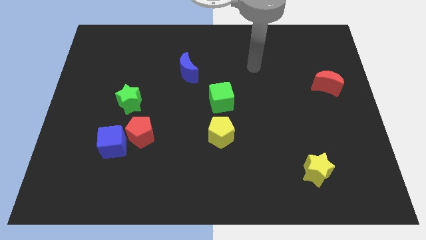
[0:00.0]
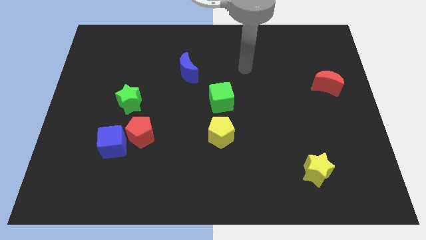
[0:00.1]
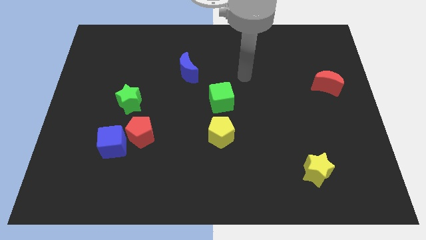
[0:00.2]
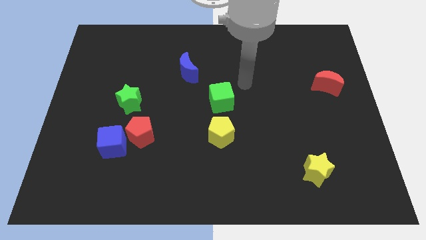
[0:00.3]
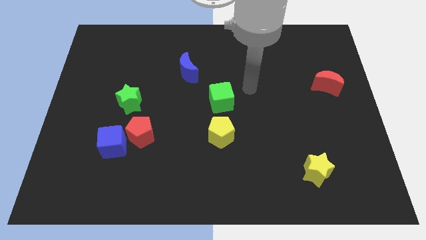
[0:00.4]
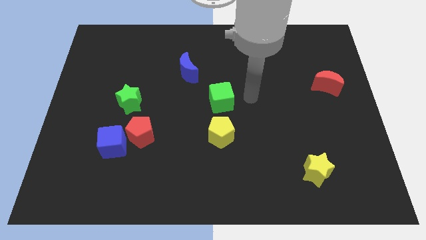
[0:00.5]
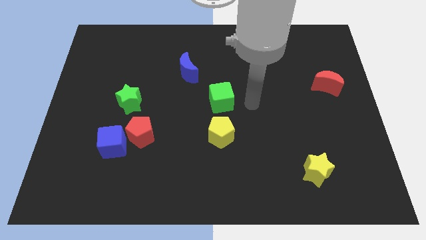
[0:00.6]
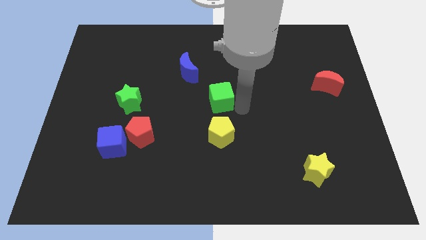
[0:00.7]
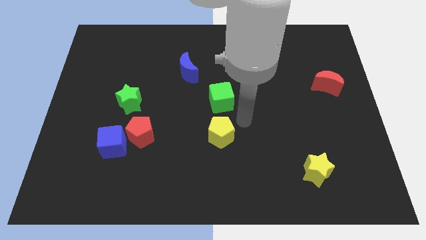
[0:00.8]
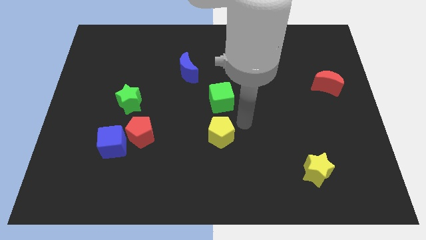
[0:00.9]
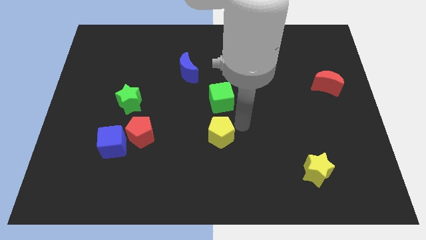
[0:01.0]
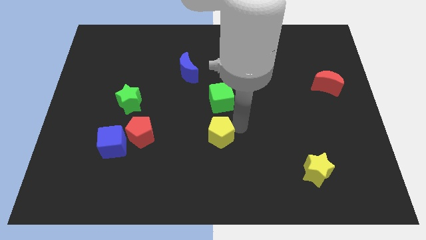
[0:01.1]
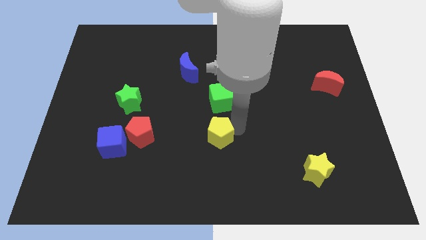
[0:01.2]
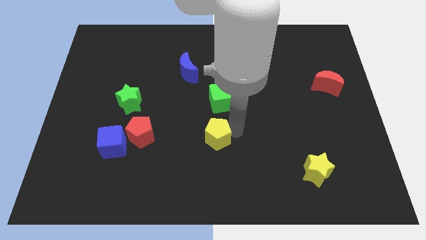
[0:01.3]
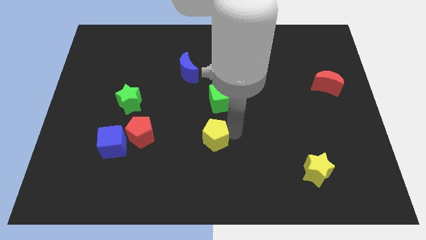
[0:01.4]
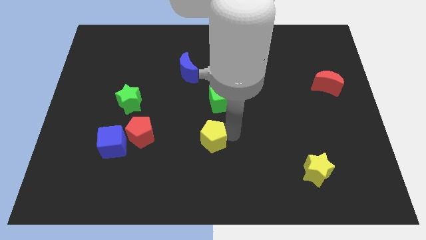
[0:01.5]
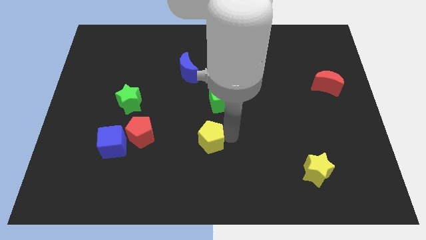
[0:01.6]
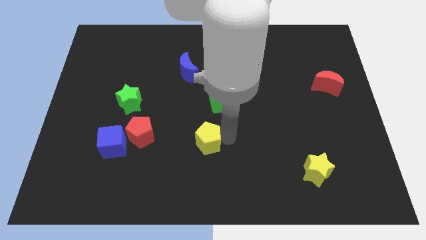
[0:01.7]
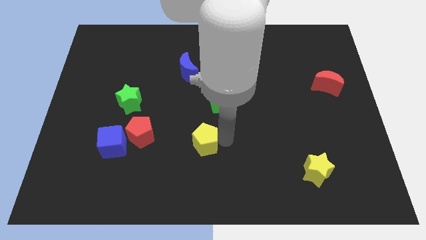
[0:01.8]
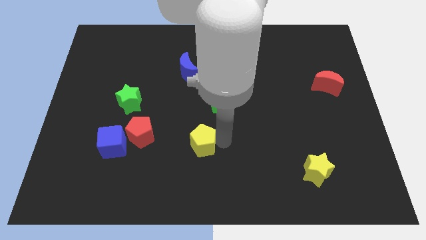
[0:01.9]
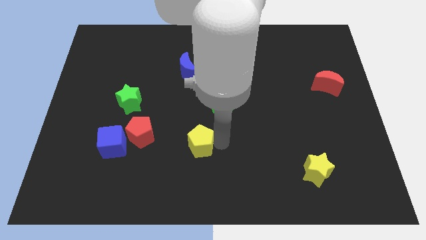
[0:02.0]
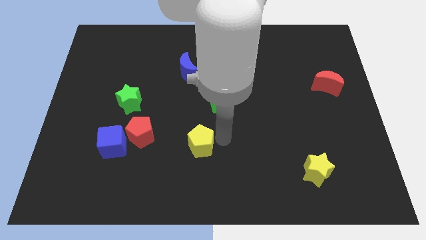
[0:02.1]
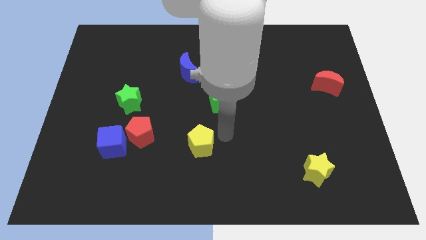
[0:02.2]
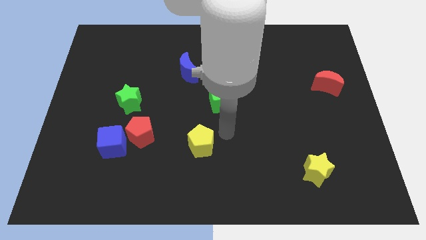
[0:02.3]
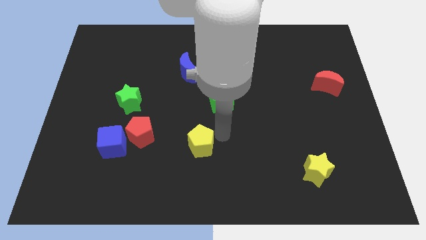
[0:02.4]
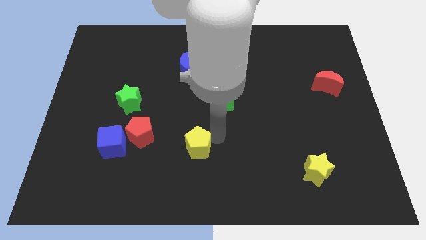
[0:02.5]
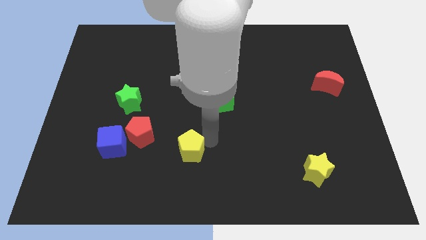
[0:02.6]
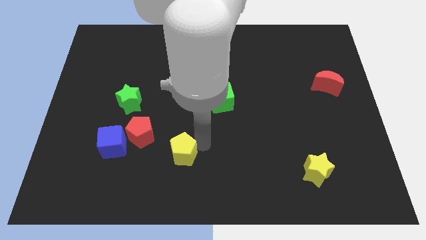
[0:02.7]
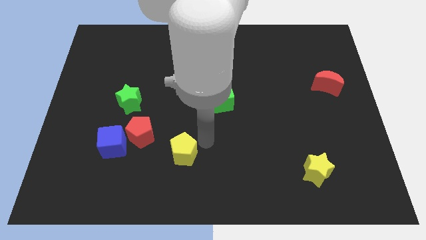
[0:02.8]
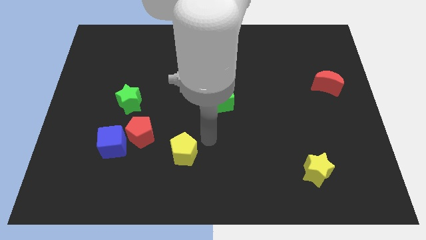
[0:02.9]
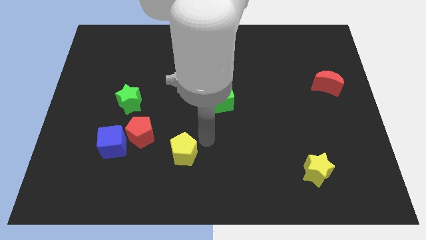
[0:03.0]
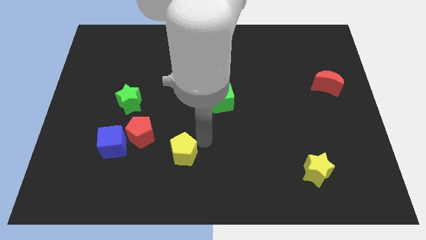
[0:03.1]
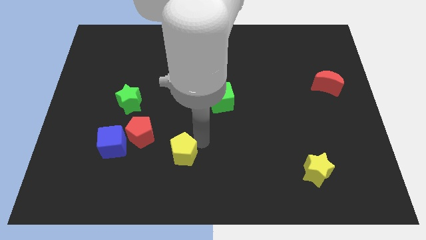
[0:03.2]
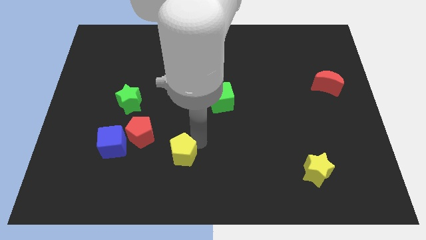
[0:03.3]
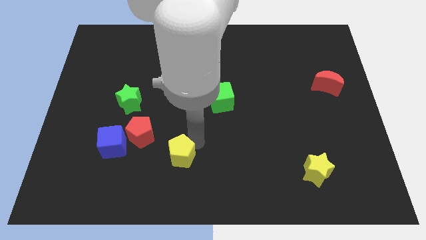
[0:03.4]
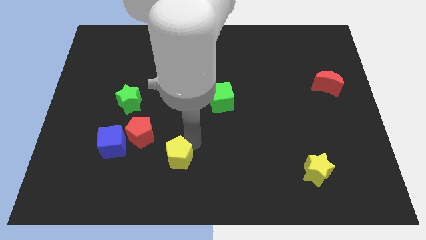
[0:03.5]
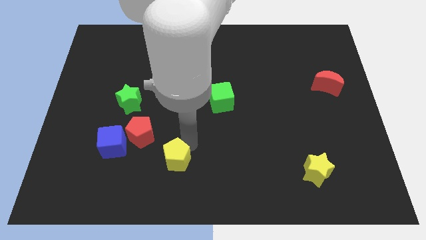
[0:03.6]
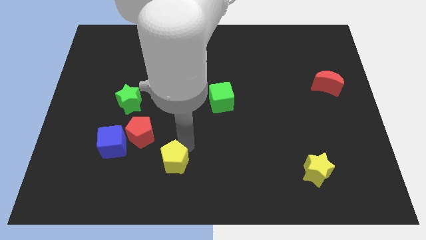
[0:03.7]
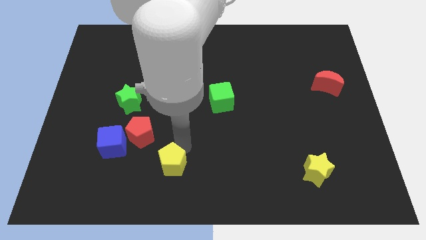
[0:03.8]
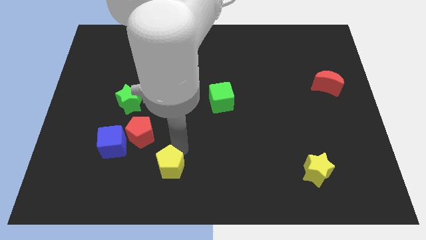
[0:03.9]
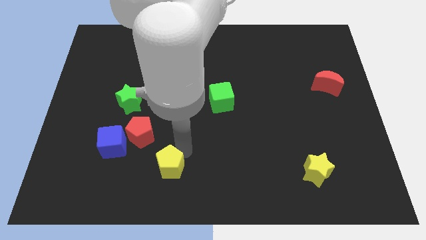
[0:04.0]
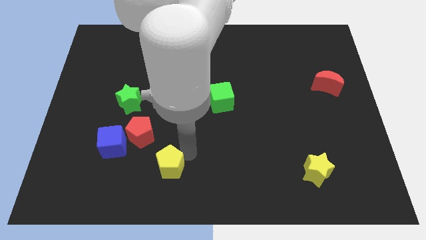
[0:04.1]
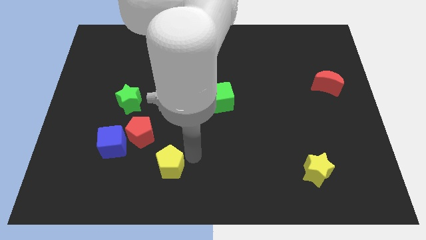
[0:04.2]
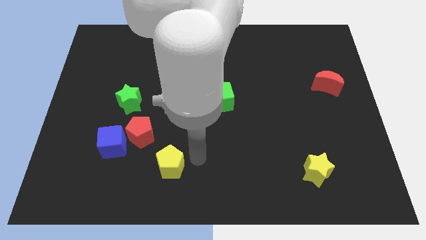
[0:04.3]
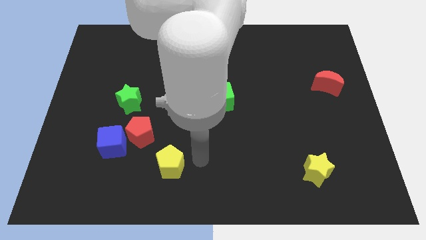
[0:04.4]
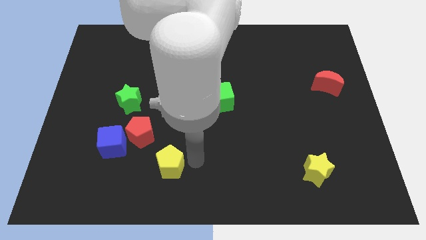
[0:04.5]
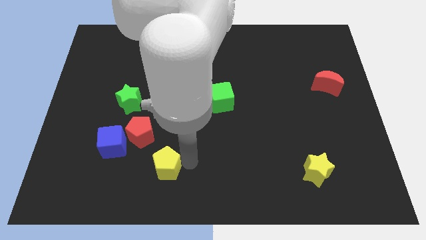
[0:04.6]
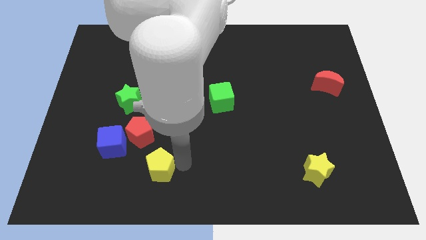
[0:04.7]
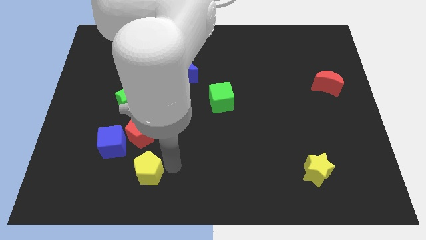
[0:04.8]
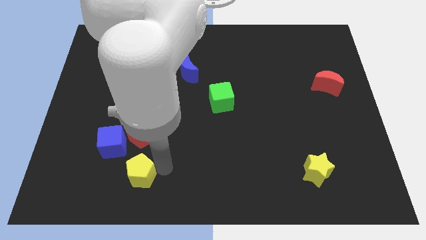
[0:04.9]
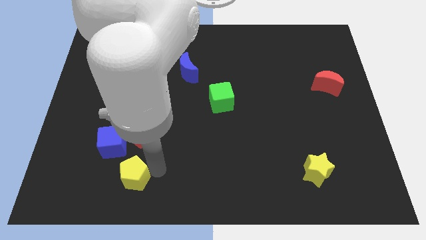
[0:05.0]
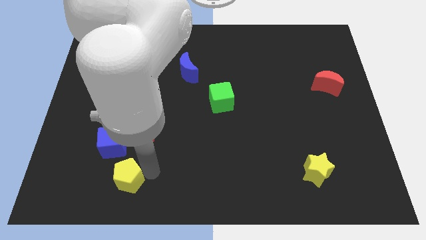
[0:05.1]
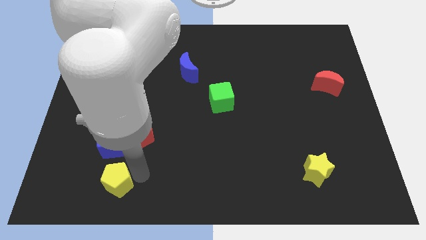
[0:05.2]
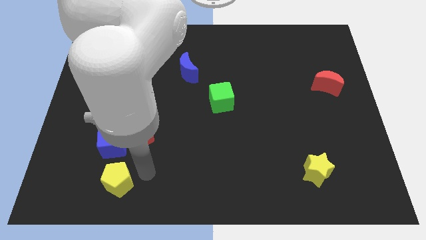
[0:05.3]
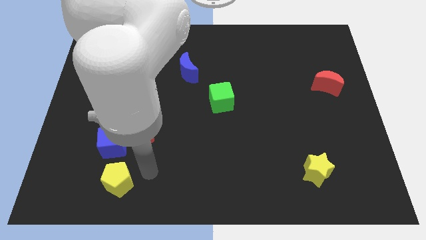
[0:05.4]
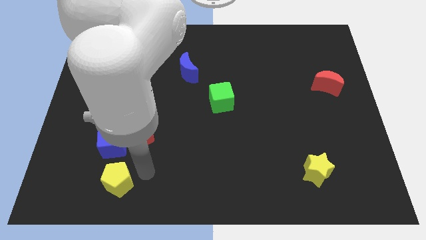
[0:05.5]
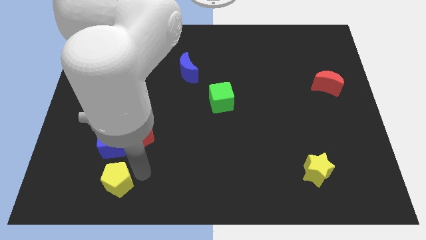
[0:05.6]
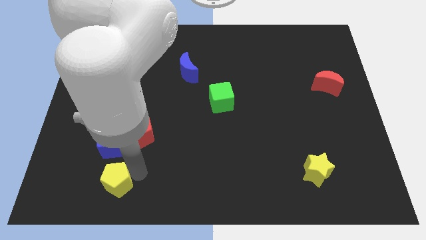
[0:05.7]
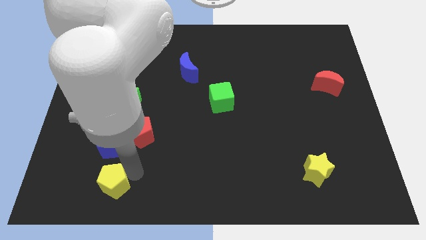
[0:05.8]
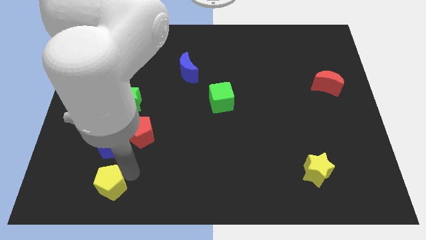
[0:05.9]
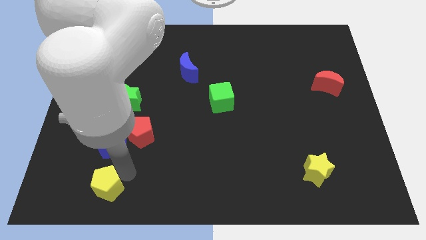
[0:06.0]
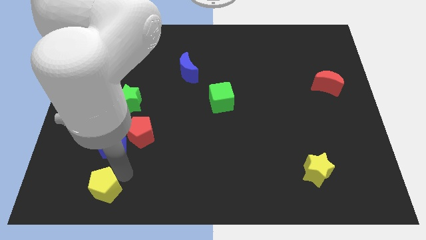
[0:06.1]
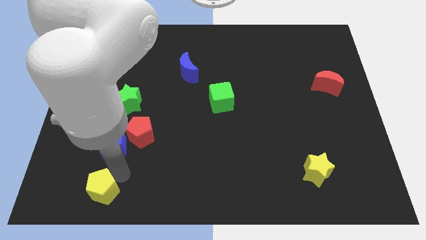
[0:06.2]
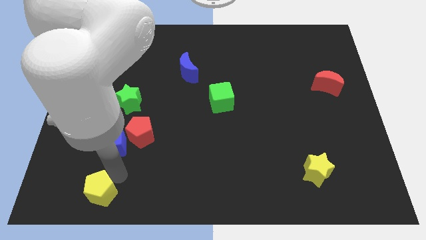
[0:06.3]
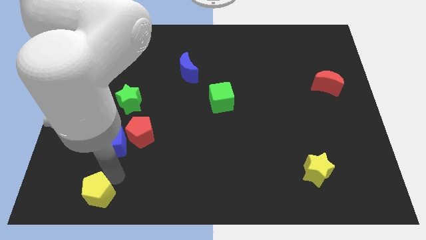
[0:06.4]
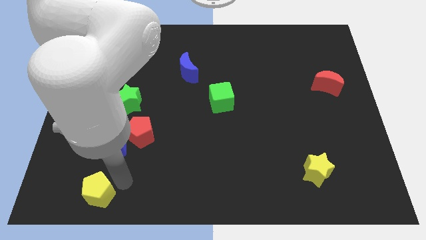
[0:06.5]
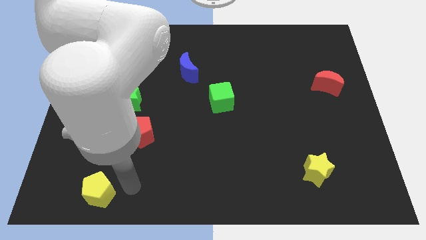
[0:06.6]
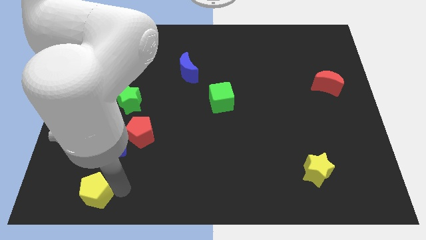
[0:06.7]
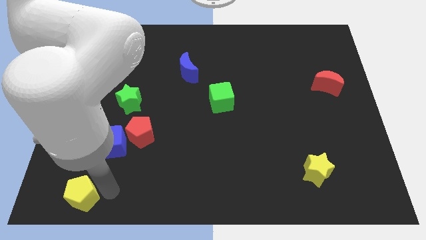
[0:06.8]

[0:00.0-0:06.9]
push the yellow pentagon to the bottom left of the board
